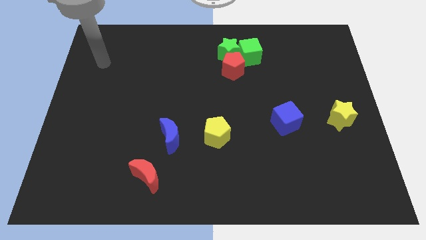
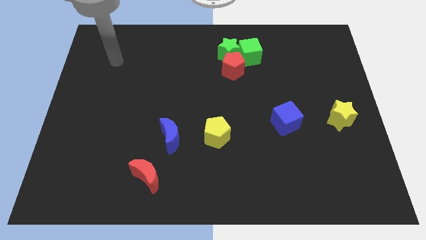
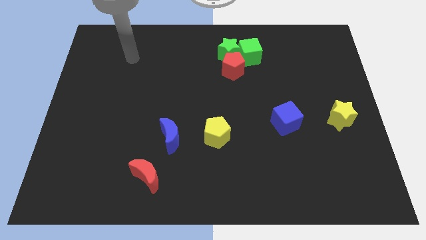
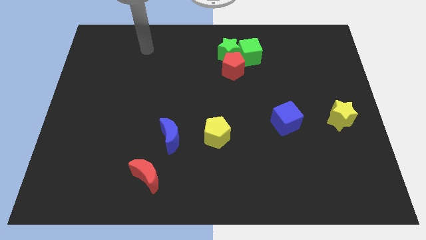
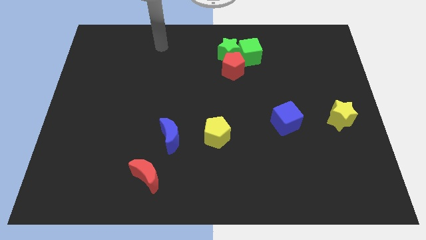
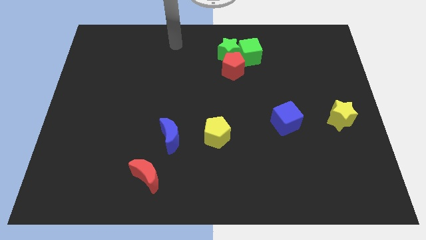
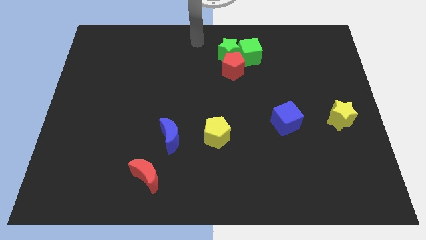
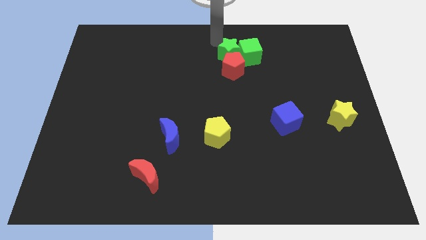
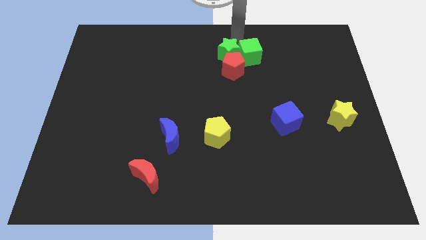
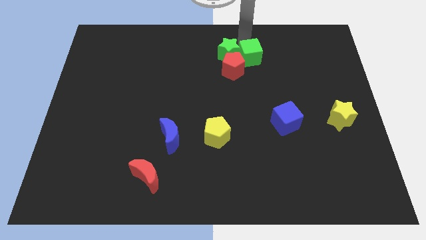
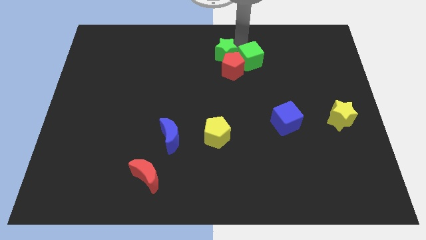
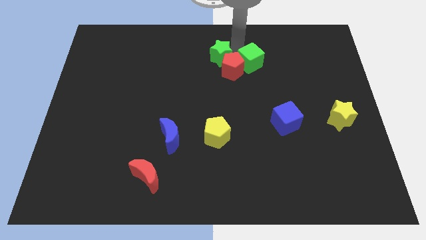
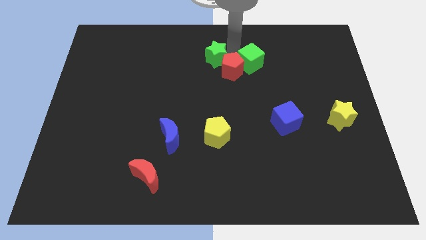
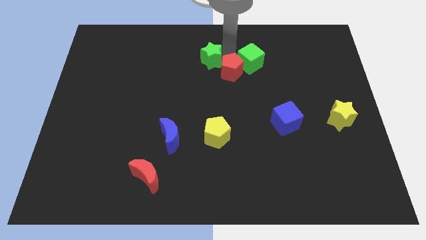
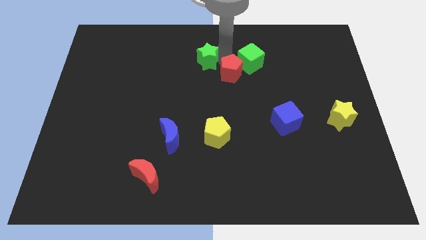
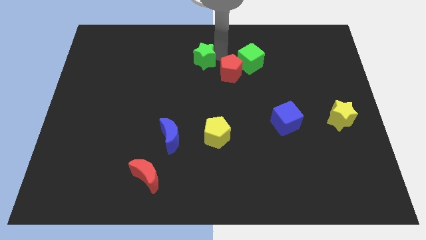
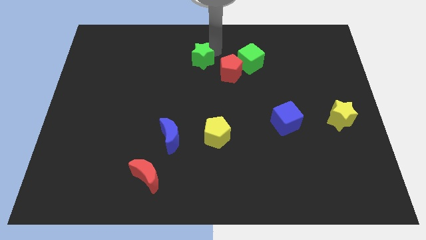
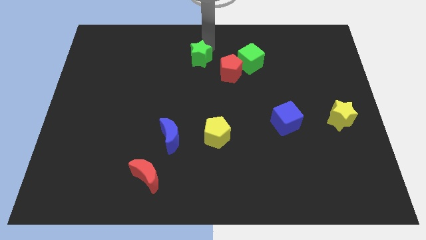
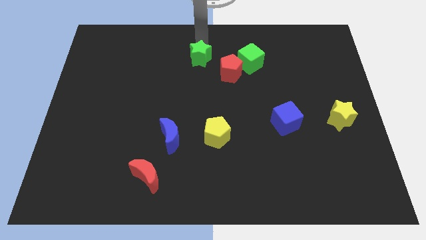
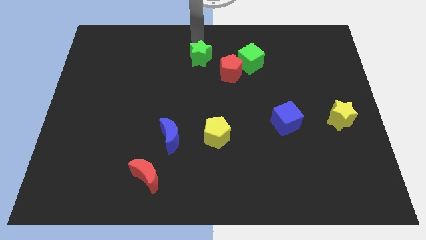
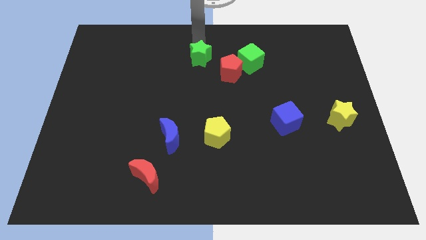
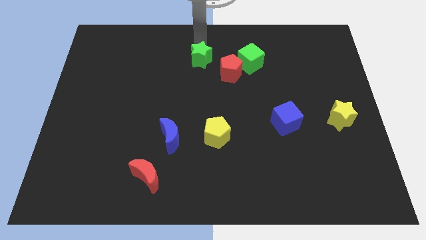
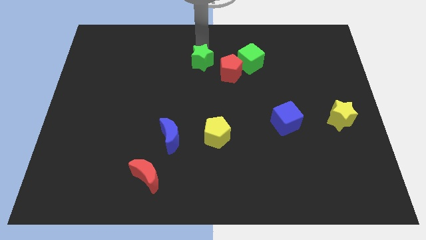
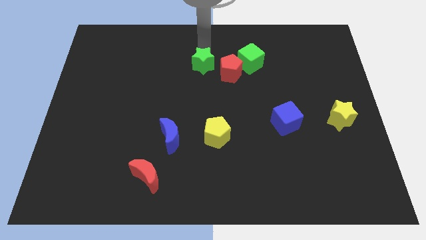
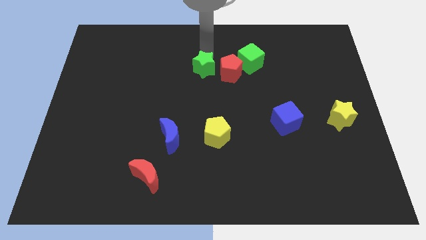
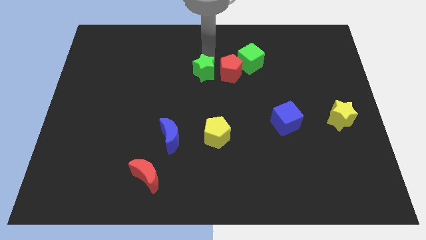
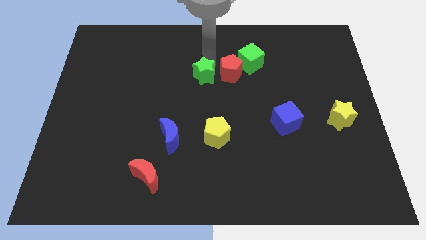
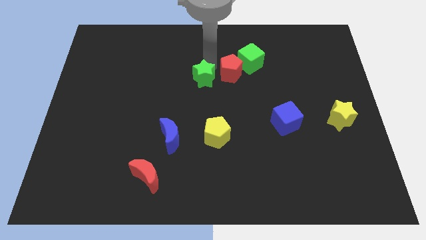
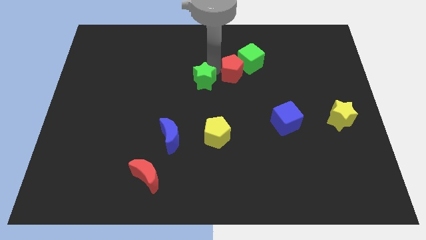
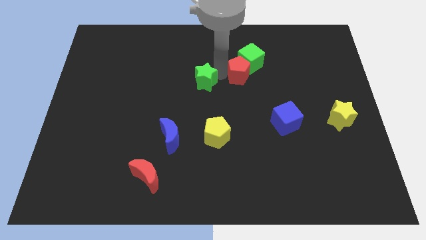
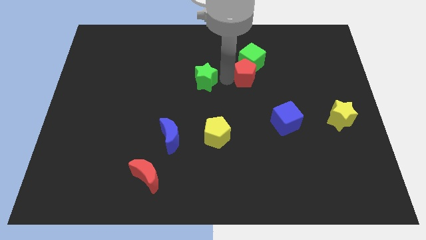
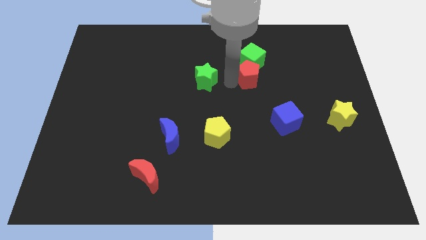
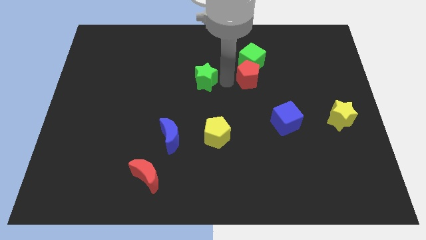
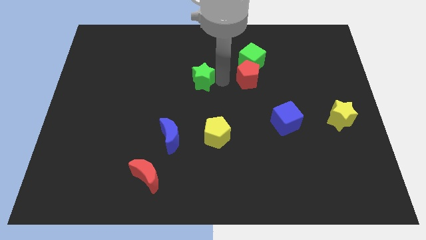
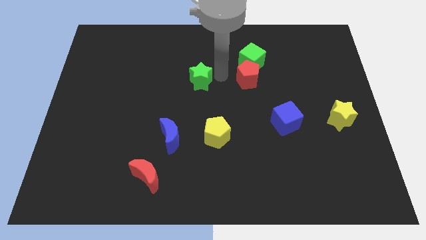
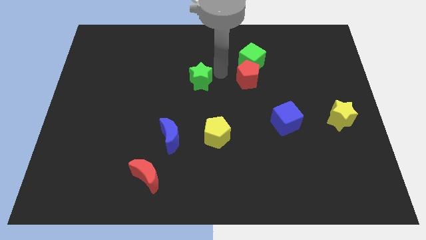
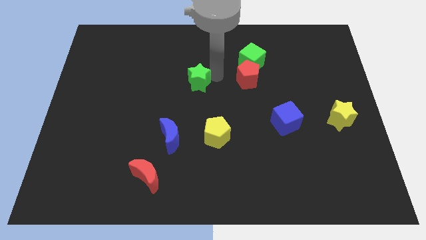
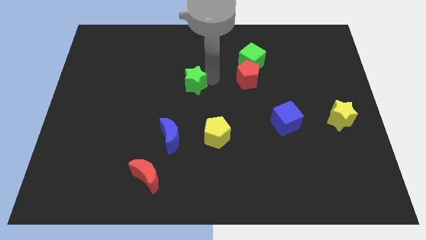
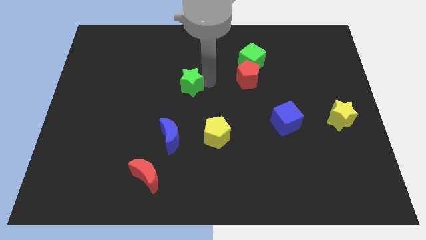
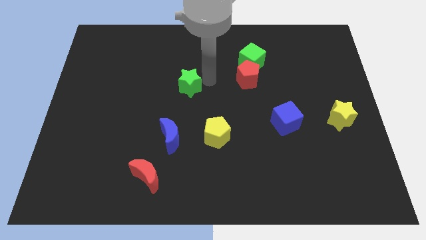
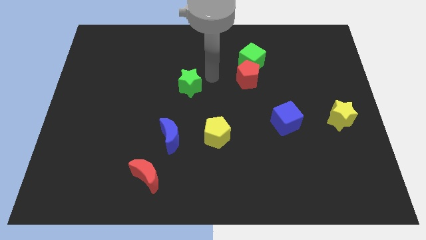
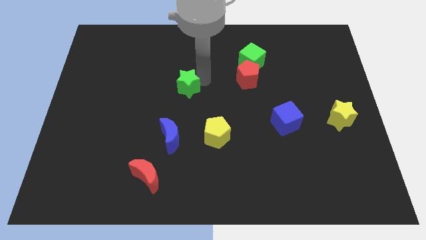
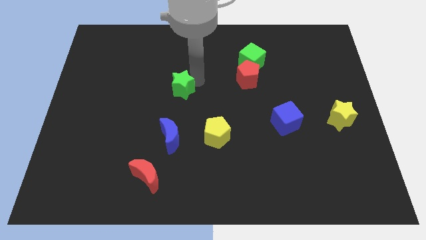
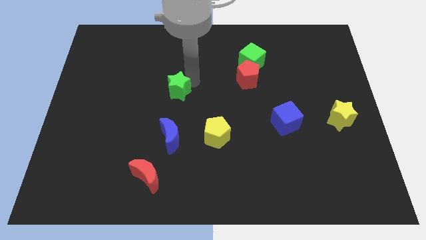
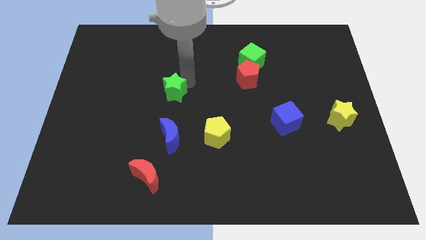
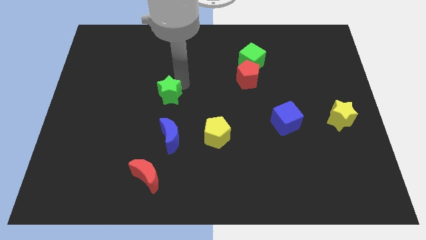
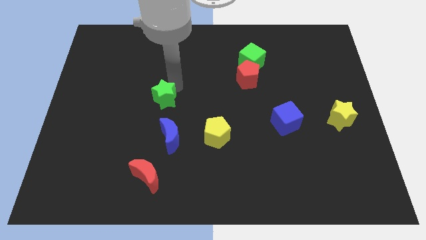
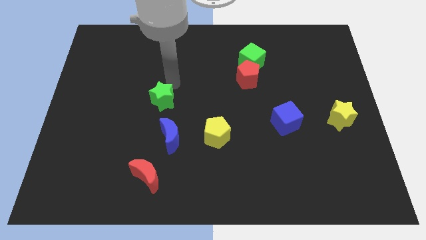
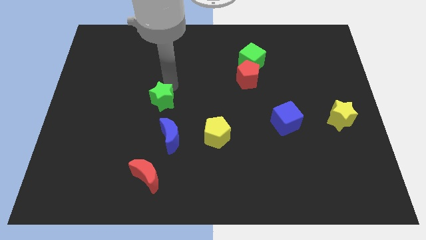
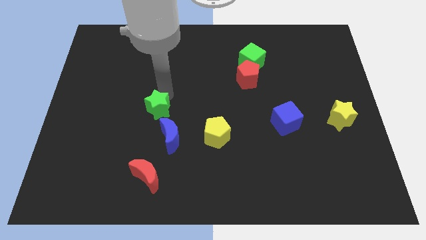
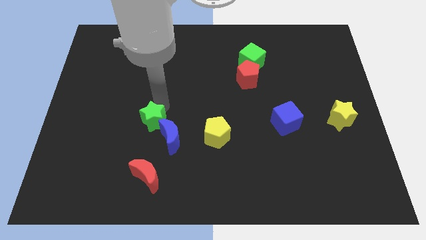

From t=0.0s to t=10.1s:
slide the green star left of the blue moon

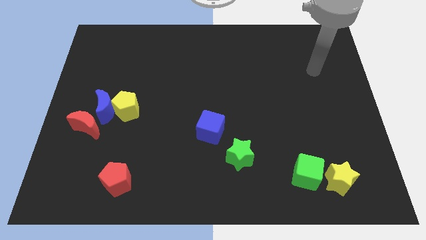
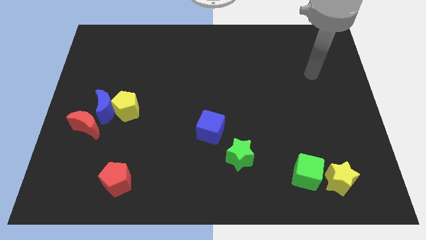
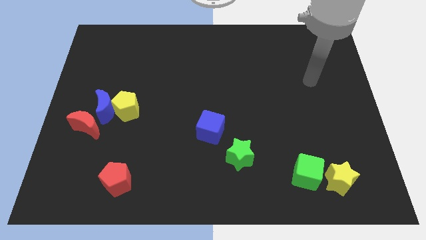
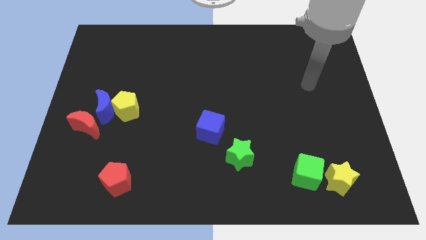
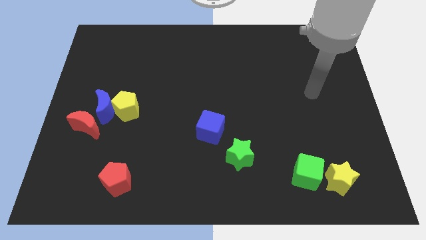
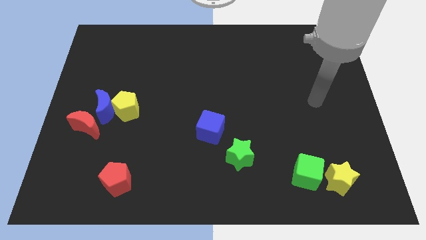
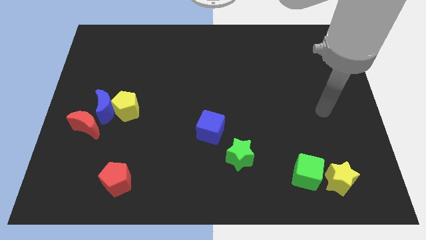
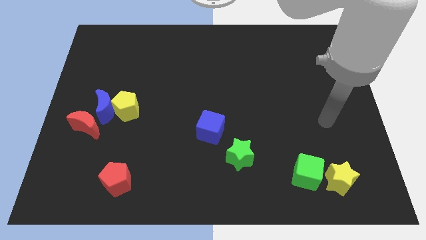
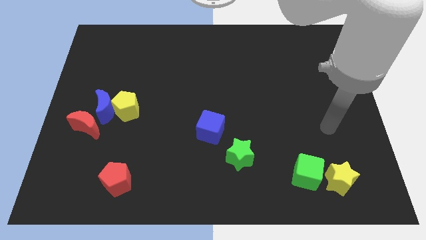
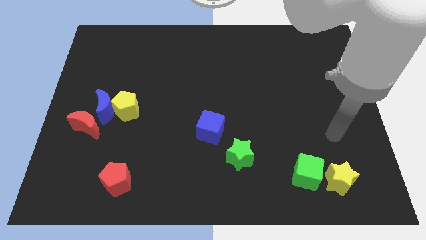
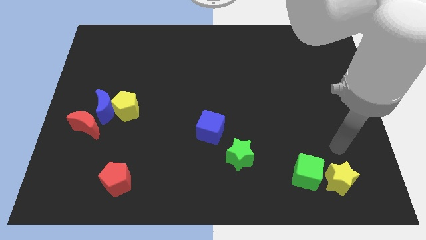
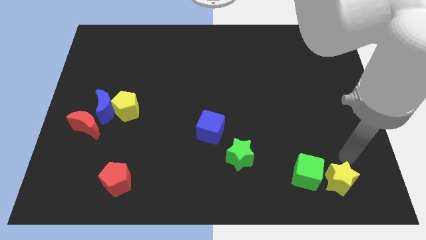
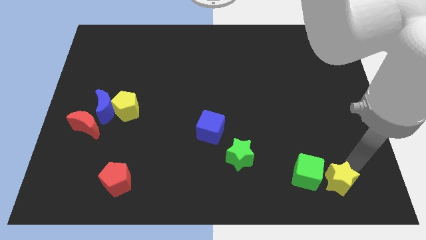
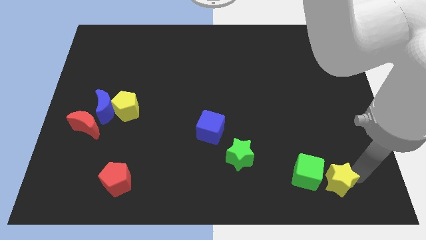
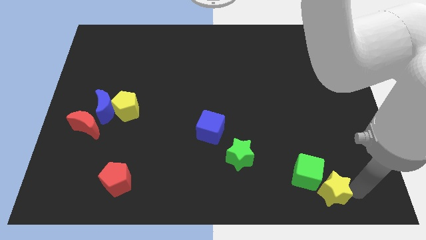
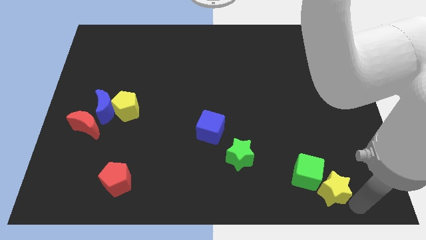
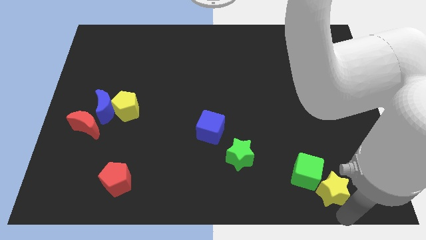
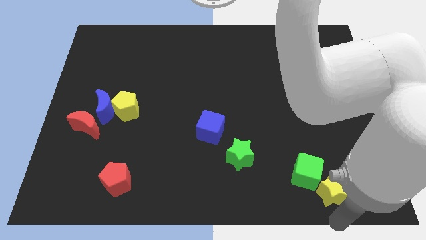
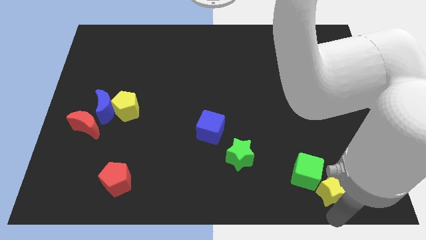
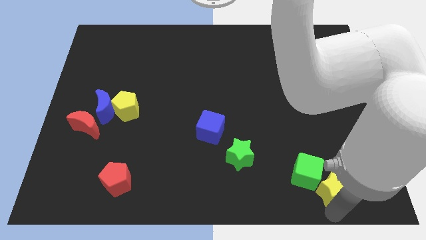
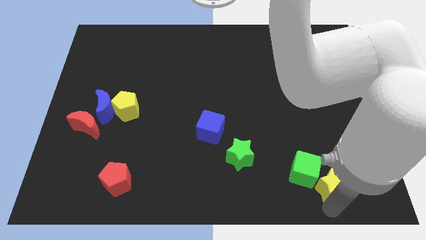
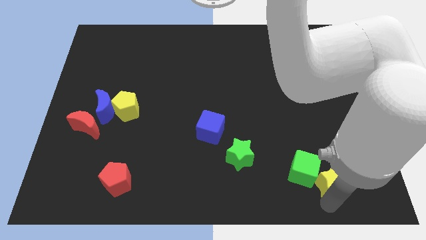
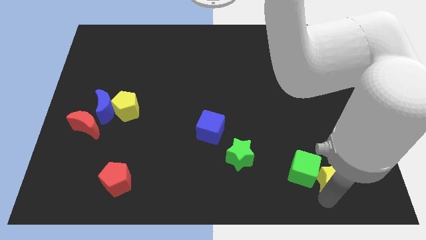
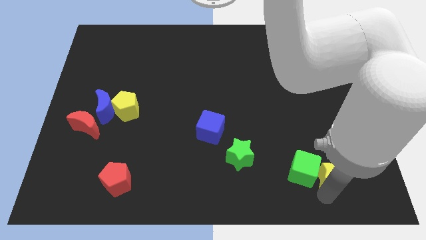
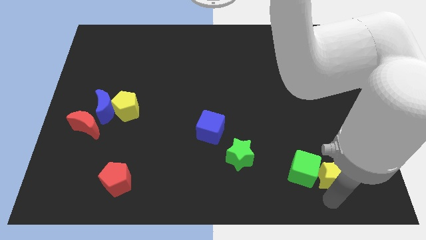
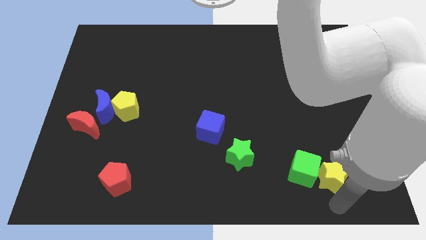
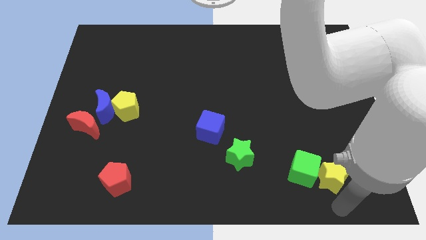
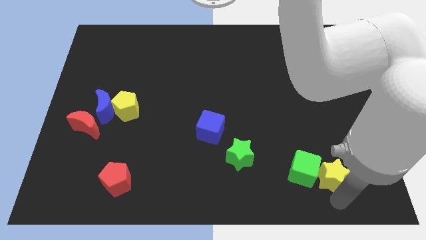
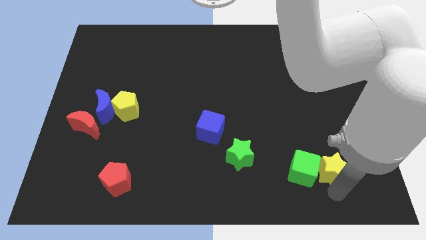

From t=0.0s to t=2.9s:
slide the yellow star to the top right of the green cube
